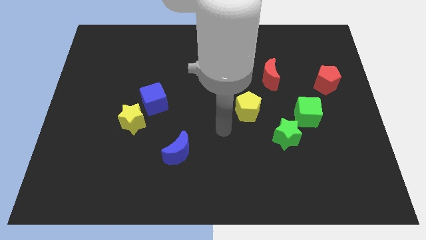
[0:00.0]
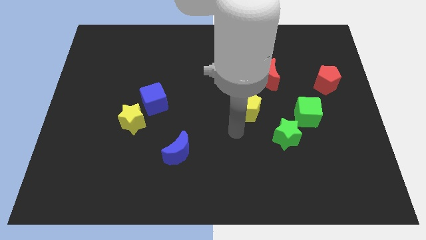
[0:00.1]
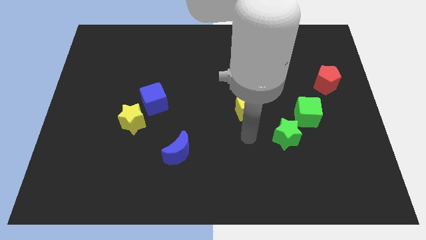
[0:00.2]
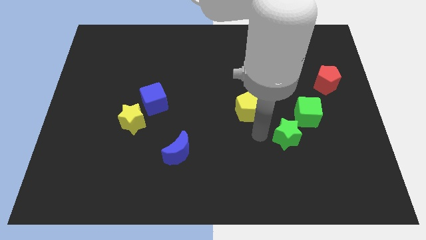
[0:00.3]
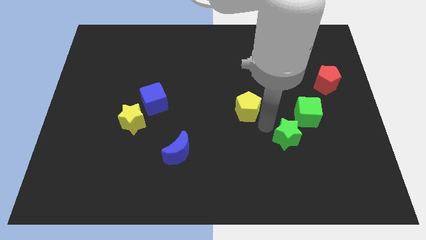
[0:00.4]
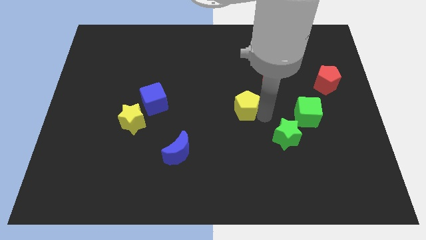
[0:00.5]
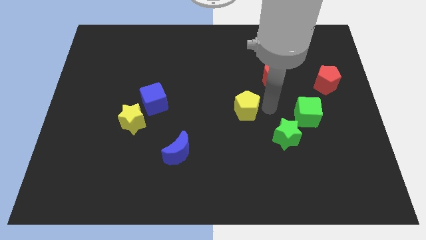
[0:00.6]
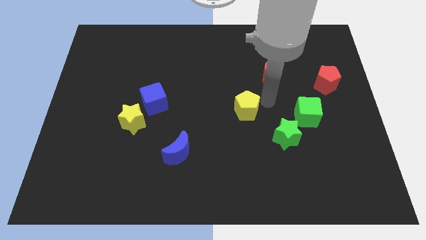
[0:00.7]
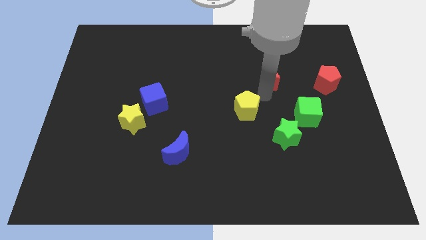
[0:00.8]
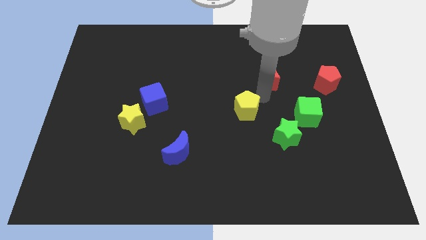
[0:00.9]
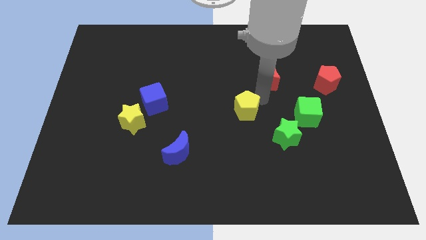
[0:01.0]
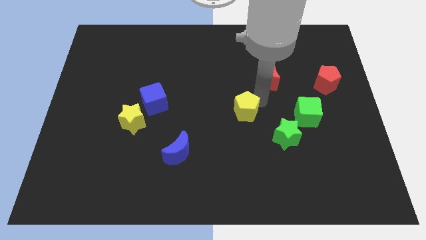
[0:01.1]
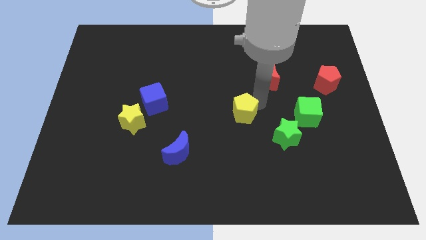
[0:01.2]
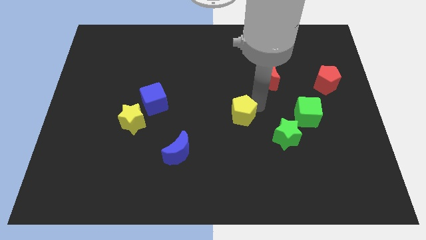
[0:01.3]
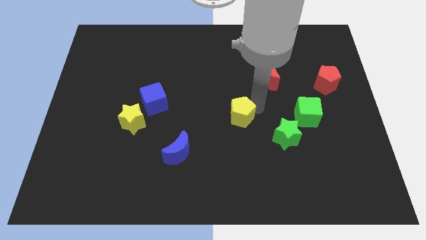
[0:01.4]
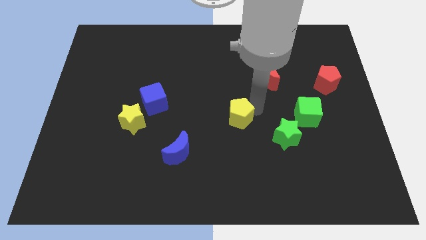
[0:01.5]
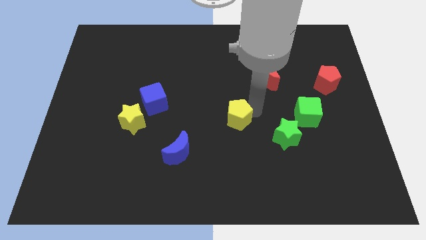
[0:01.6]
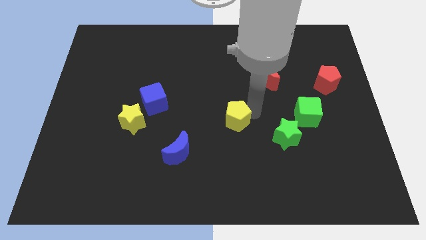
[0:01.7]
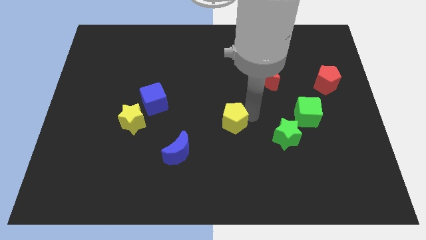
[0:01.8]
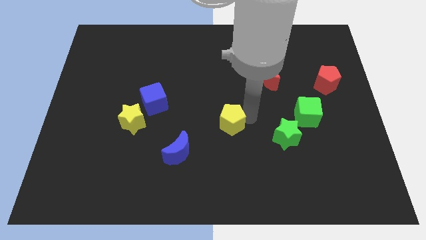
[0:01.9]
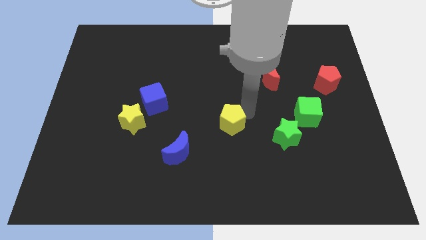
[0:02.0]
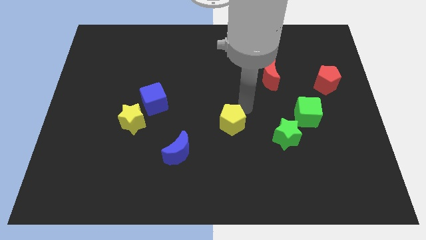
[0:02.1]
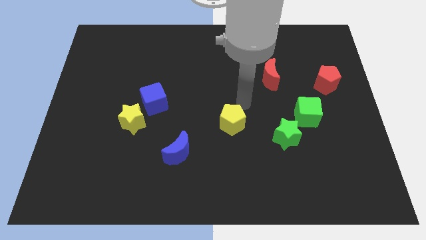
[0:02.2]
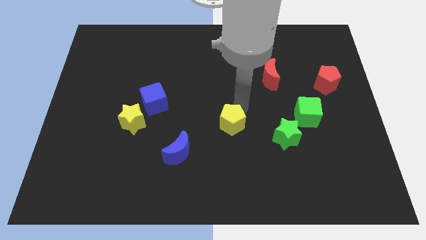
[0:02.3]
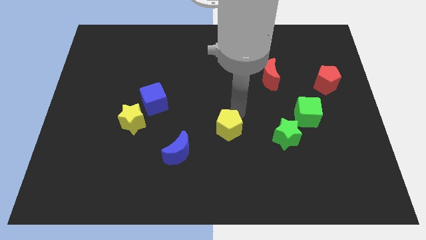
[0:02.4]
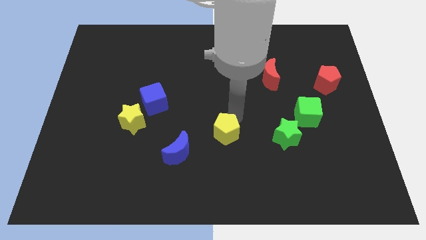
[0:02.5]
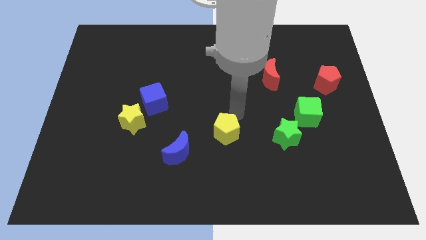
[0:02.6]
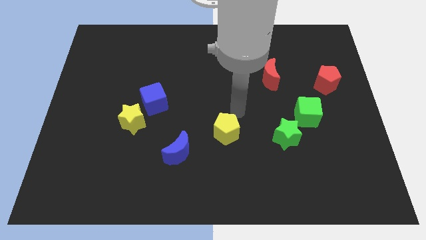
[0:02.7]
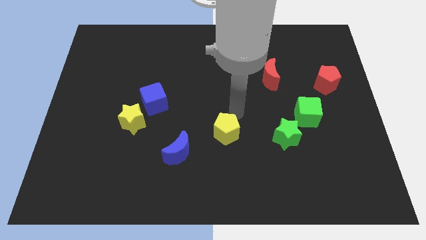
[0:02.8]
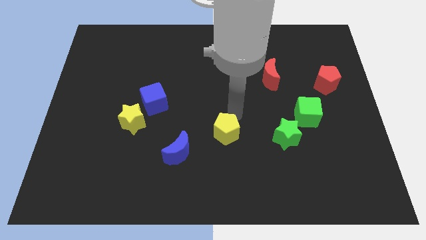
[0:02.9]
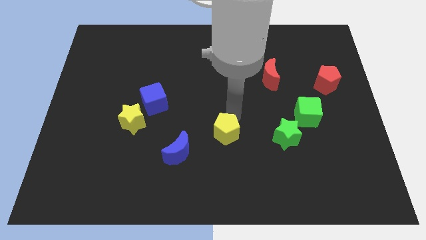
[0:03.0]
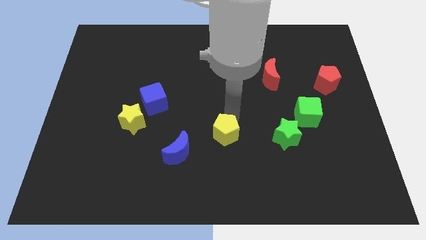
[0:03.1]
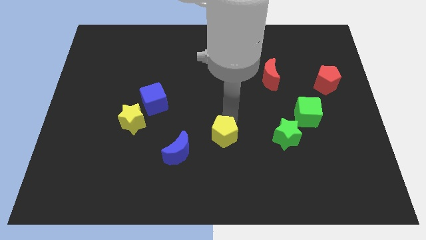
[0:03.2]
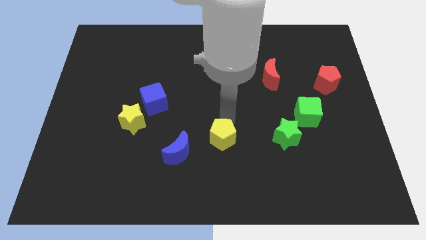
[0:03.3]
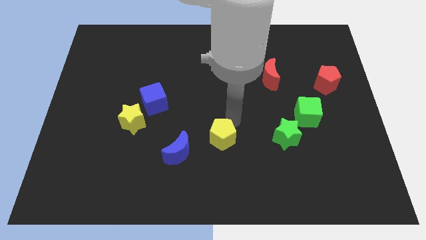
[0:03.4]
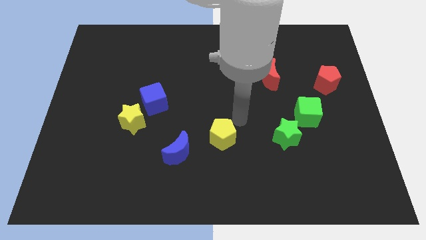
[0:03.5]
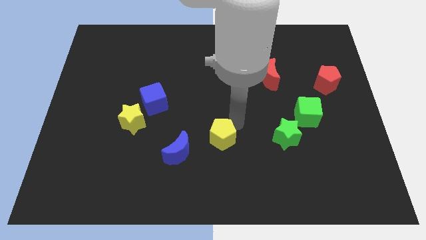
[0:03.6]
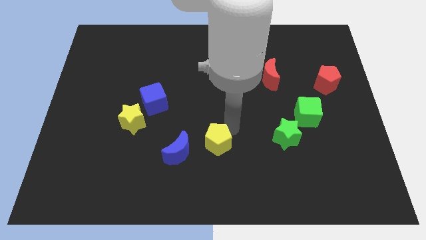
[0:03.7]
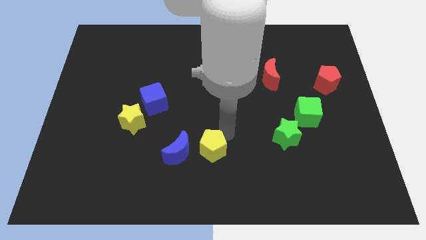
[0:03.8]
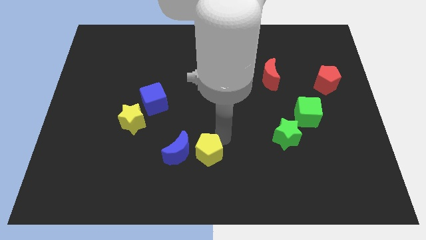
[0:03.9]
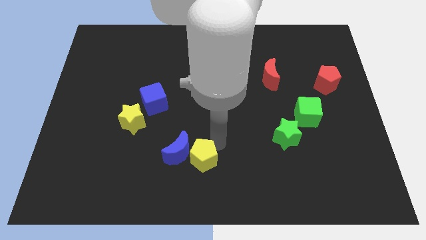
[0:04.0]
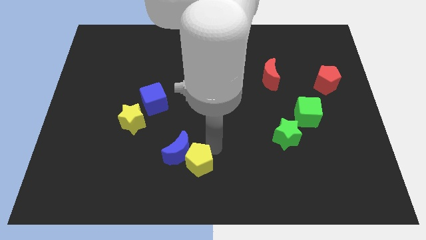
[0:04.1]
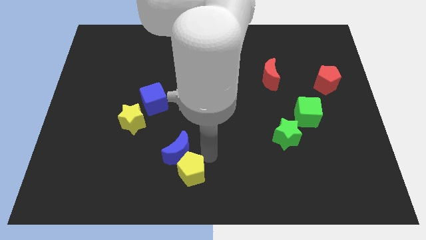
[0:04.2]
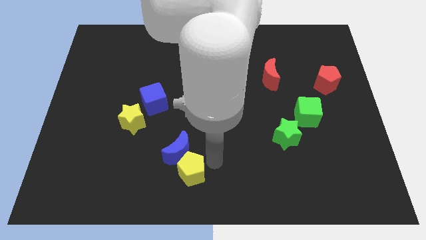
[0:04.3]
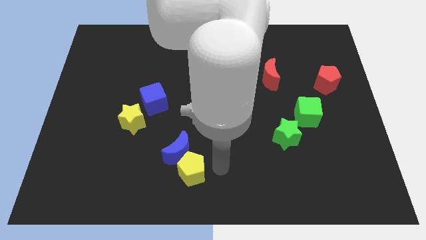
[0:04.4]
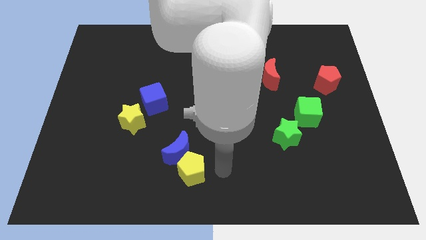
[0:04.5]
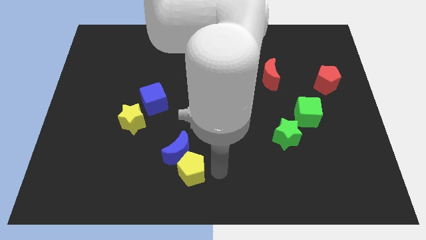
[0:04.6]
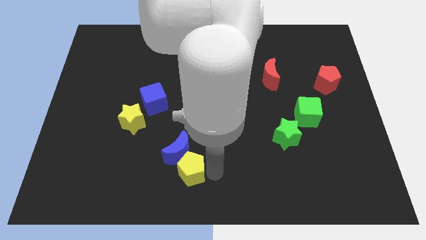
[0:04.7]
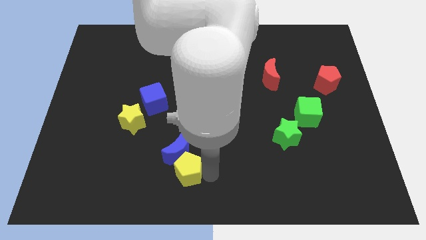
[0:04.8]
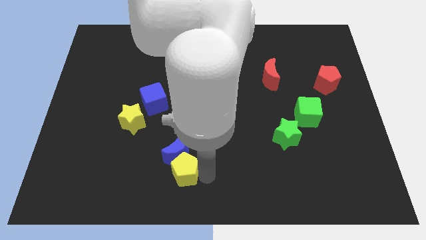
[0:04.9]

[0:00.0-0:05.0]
move the yellow pentagon diagonally down and to the left of the blue moon

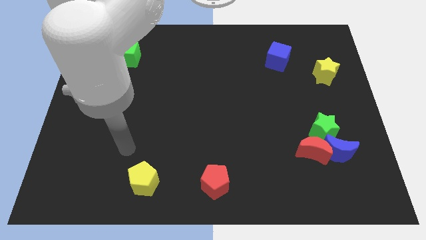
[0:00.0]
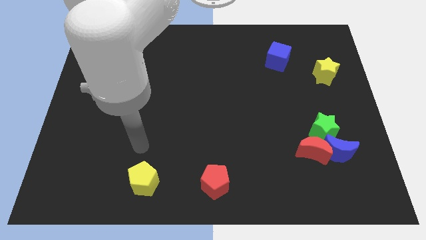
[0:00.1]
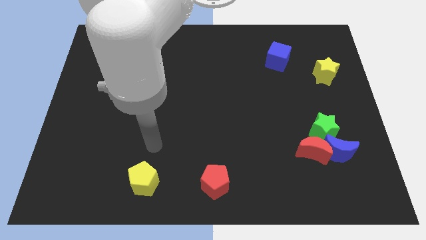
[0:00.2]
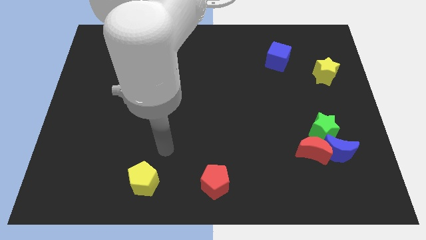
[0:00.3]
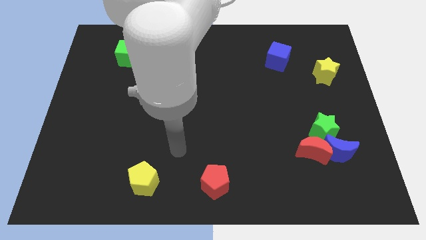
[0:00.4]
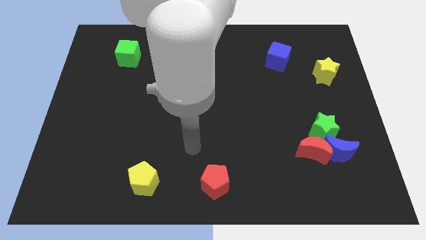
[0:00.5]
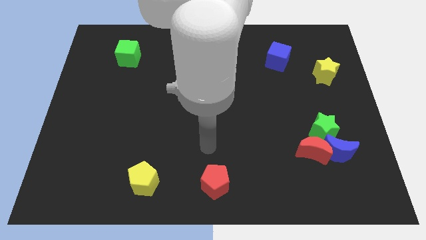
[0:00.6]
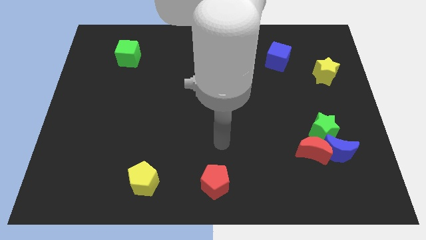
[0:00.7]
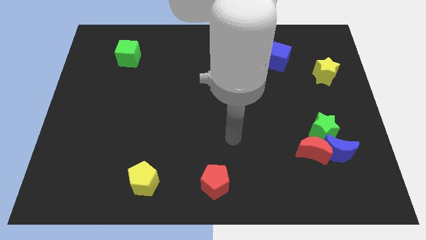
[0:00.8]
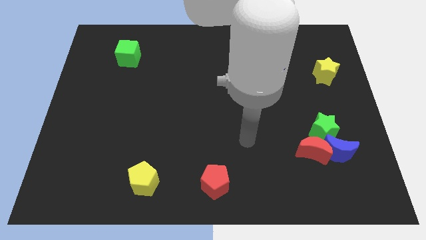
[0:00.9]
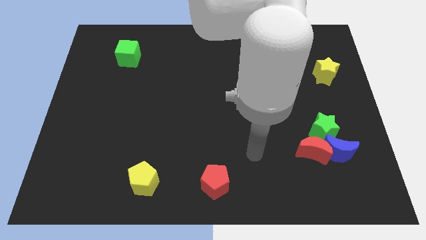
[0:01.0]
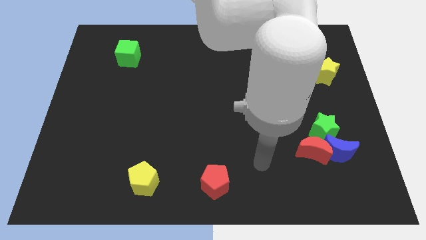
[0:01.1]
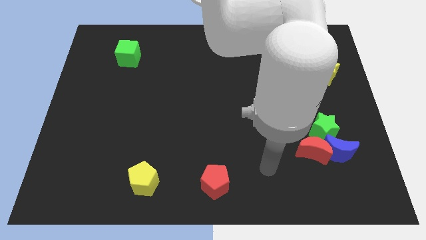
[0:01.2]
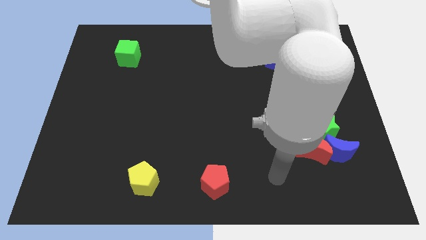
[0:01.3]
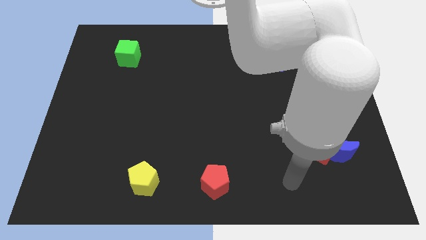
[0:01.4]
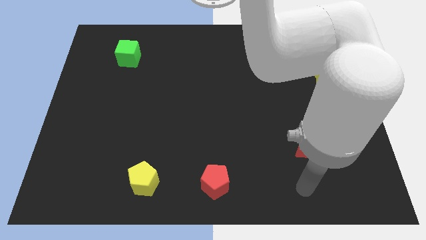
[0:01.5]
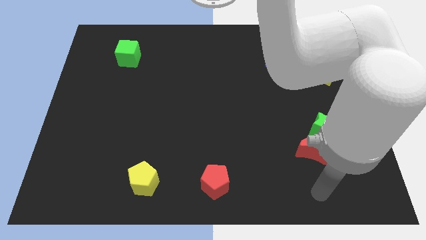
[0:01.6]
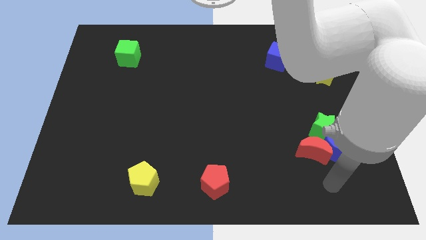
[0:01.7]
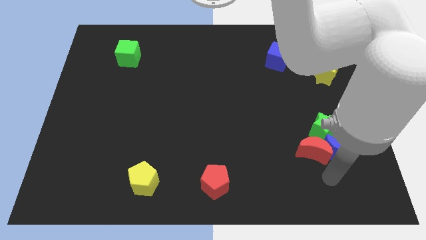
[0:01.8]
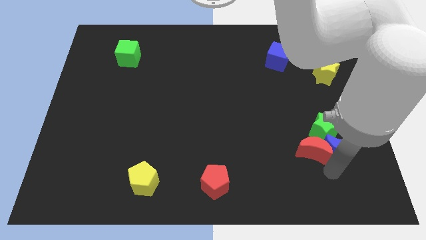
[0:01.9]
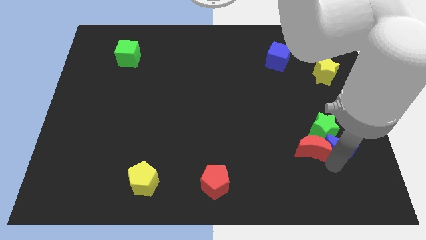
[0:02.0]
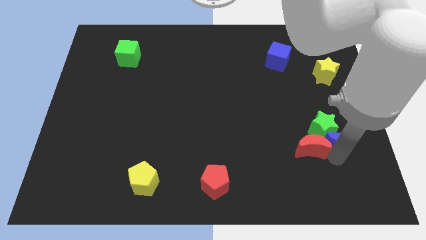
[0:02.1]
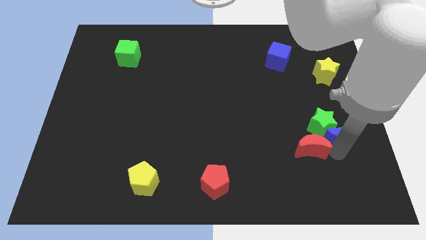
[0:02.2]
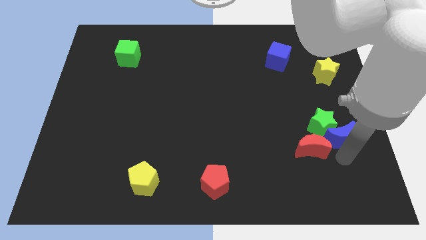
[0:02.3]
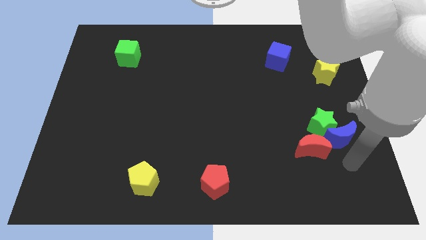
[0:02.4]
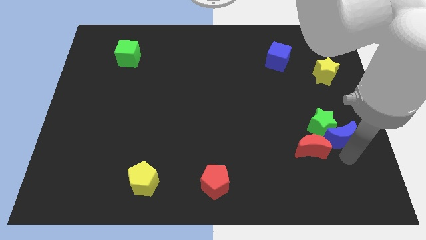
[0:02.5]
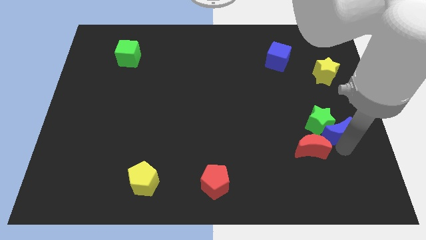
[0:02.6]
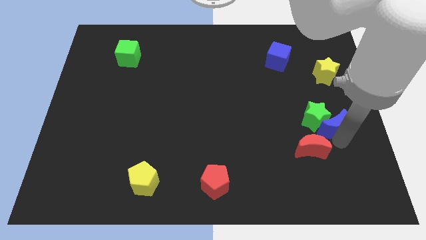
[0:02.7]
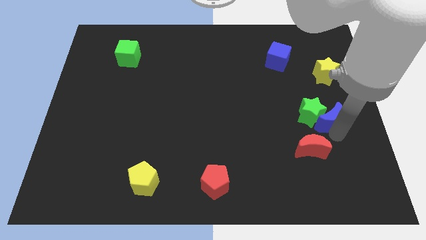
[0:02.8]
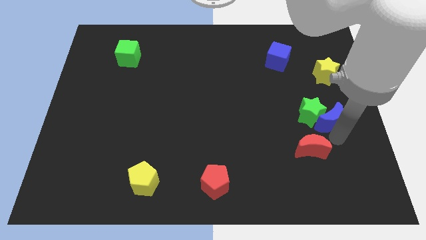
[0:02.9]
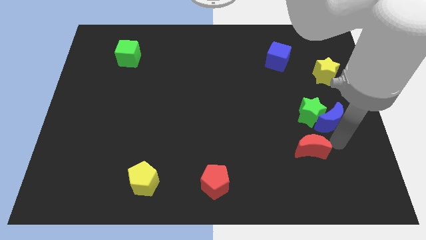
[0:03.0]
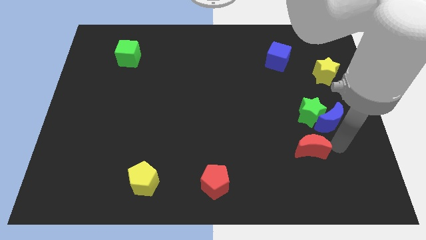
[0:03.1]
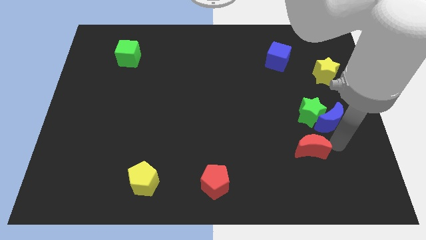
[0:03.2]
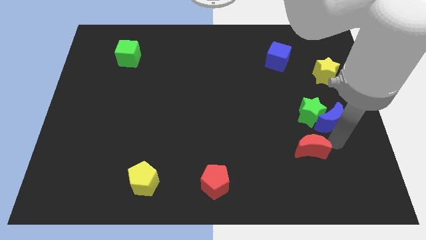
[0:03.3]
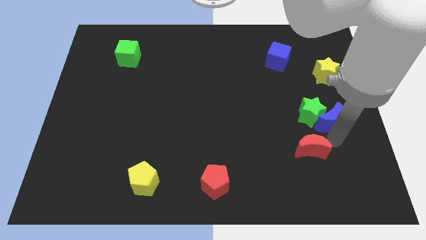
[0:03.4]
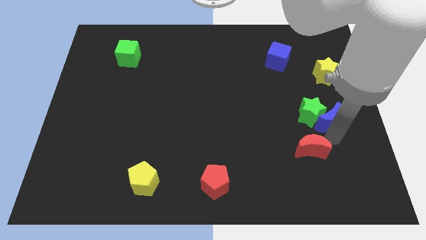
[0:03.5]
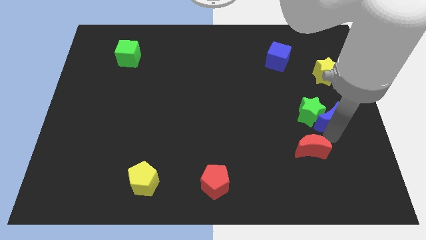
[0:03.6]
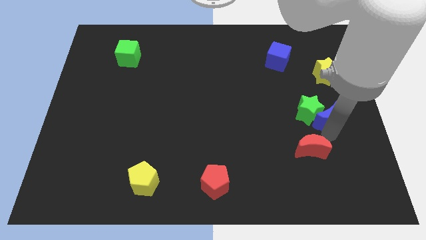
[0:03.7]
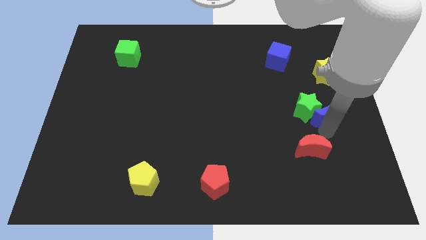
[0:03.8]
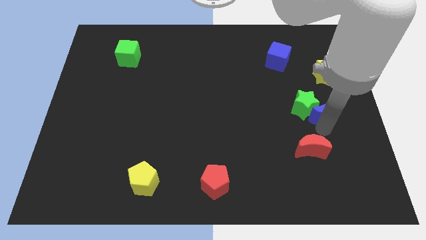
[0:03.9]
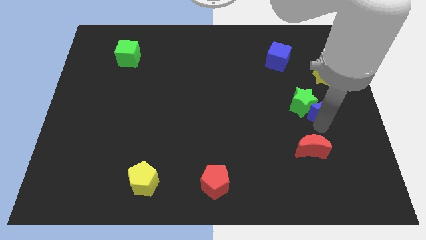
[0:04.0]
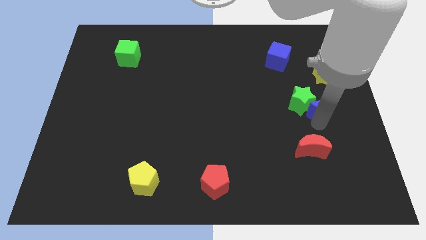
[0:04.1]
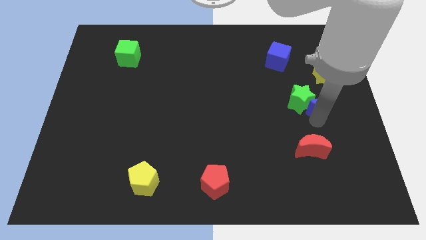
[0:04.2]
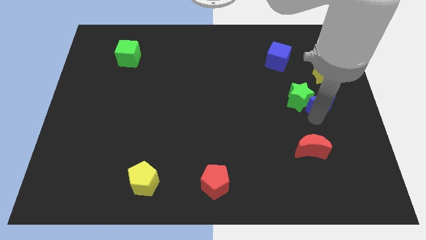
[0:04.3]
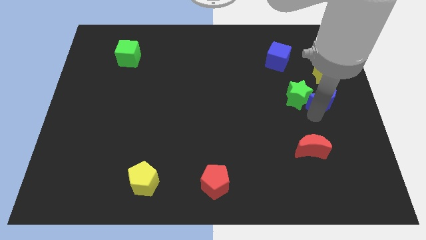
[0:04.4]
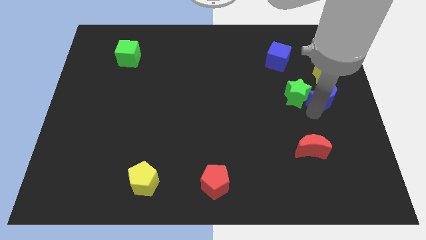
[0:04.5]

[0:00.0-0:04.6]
put the blue moon diagonally down and to the left of the yellow star
